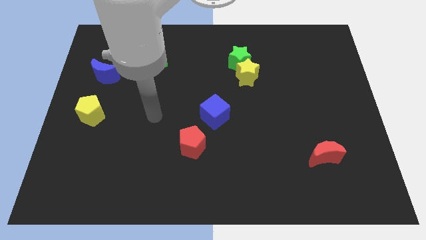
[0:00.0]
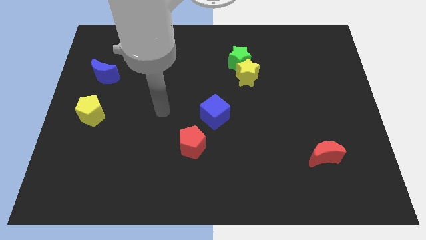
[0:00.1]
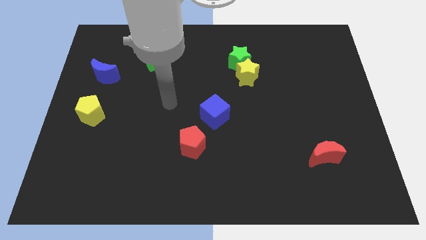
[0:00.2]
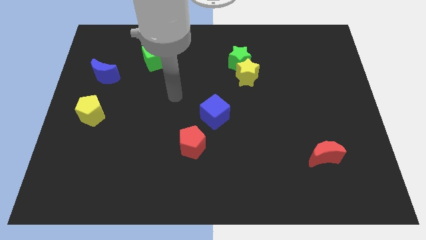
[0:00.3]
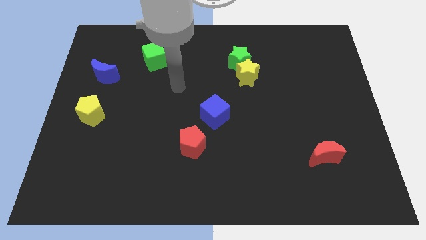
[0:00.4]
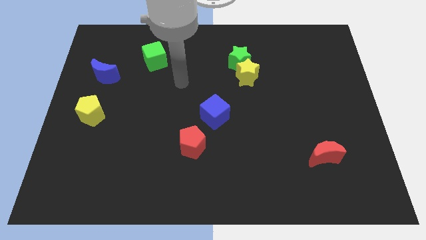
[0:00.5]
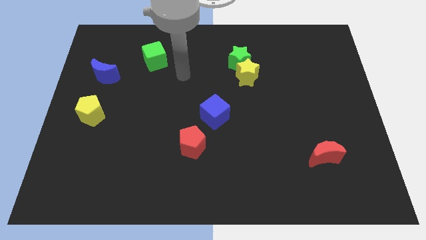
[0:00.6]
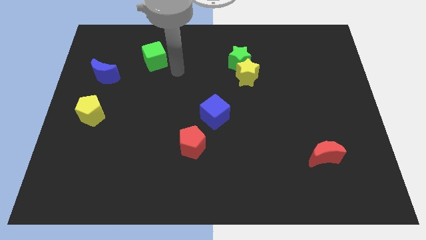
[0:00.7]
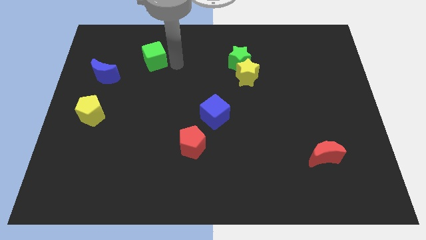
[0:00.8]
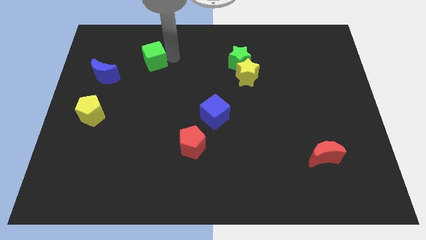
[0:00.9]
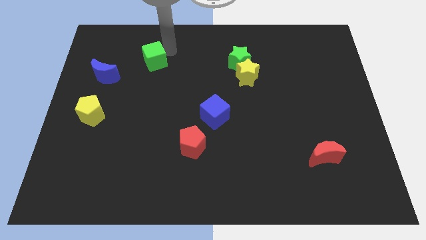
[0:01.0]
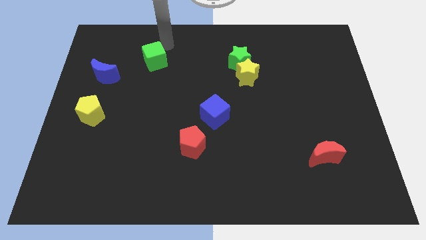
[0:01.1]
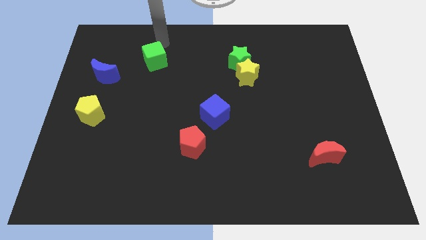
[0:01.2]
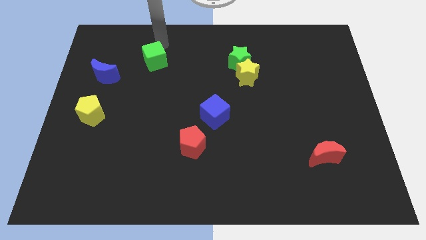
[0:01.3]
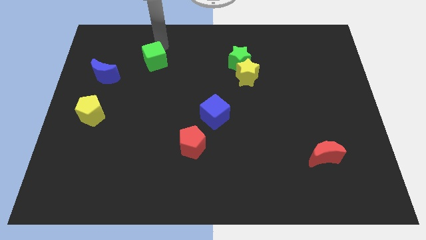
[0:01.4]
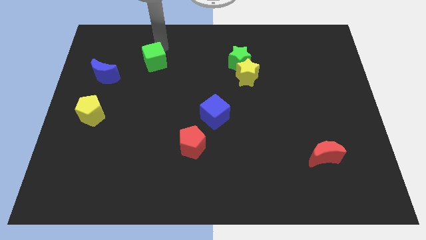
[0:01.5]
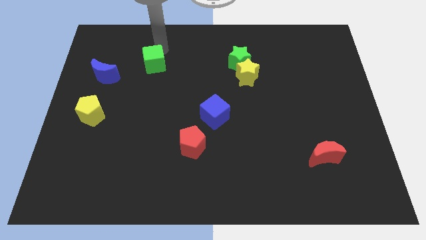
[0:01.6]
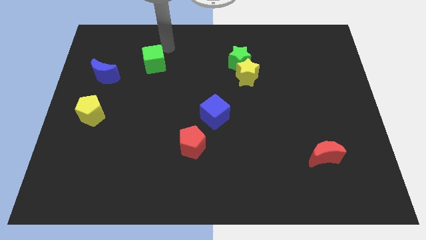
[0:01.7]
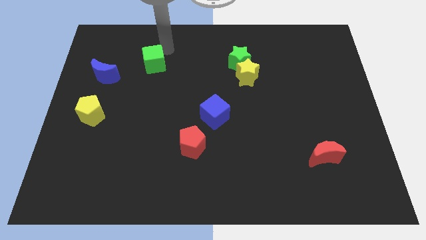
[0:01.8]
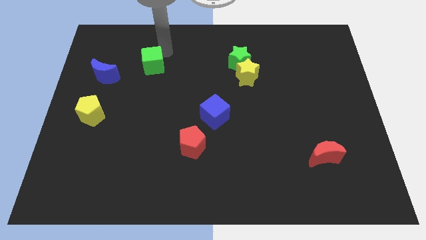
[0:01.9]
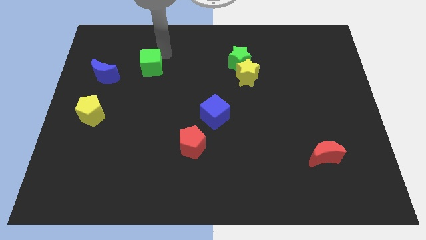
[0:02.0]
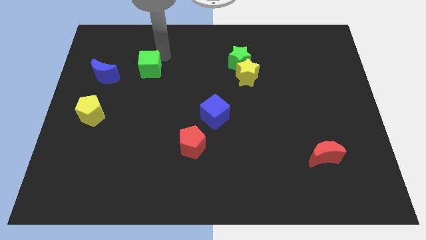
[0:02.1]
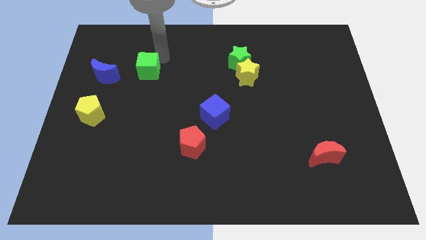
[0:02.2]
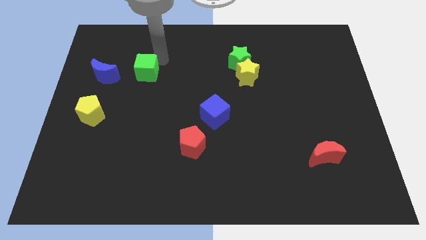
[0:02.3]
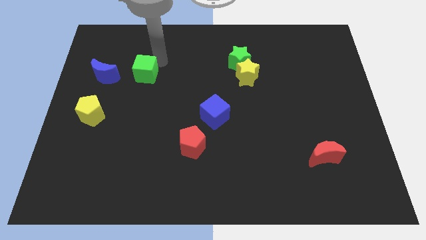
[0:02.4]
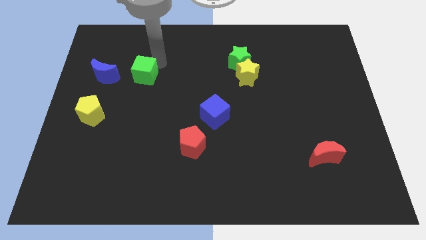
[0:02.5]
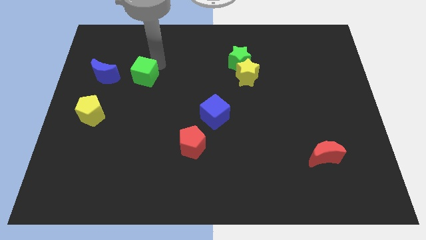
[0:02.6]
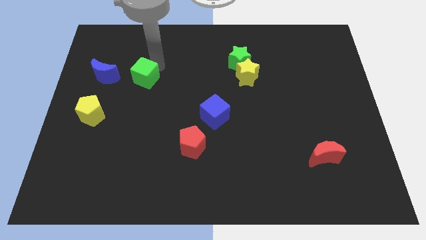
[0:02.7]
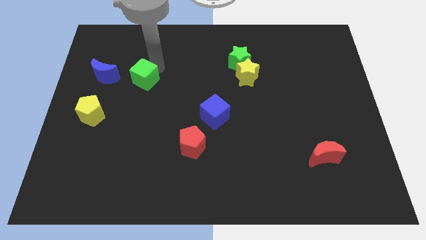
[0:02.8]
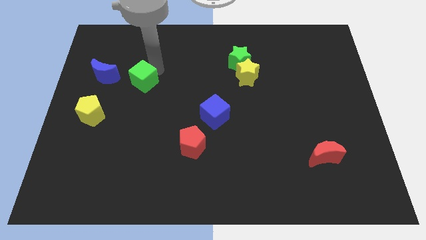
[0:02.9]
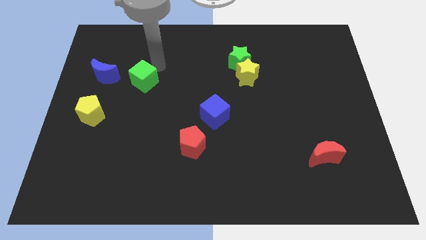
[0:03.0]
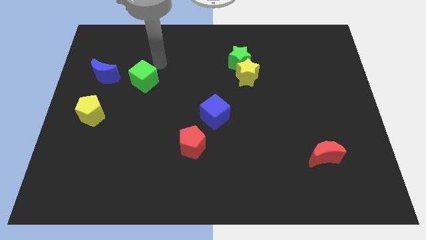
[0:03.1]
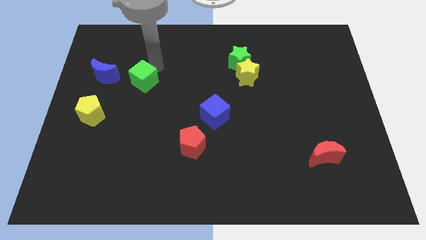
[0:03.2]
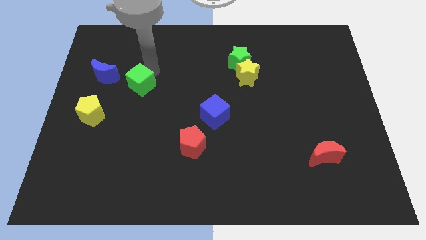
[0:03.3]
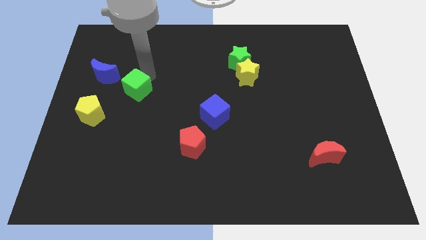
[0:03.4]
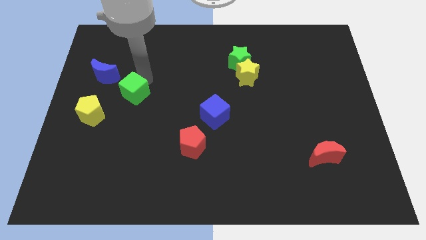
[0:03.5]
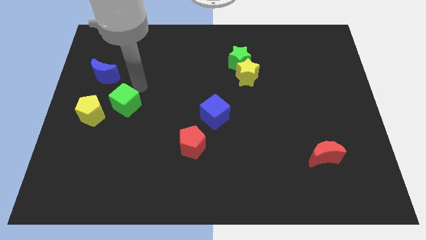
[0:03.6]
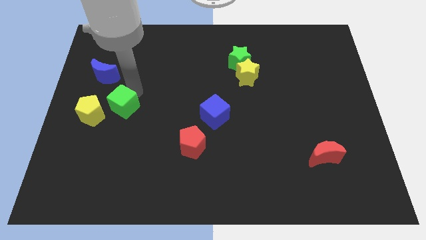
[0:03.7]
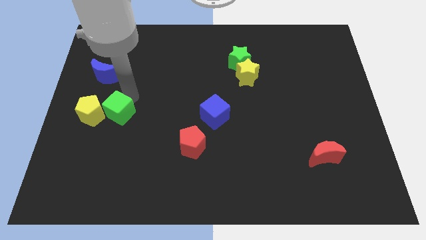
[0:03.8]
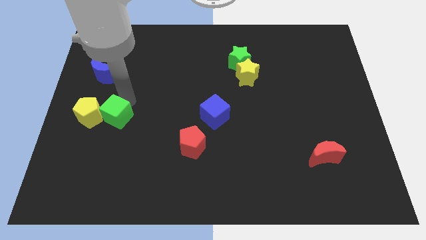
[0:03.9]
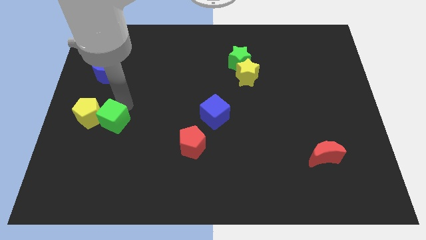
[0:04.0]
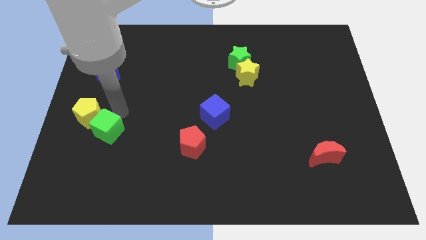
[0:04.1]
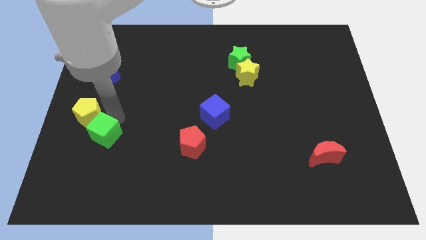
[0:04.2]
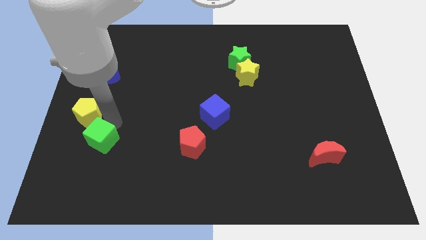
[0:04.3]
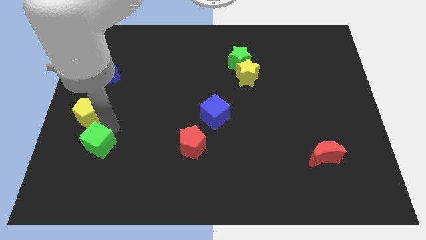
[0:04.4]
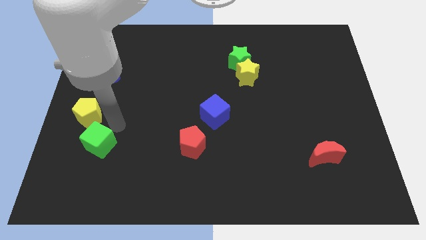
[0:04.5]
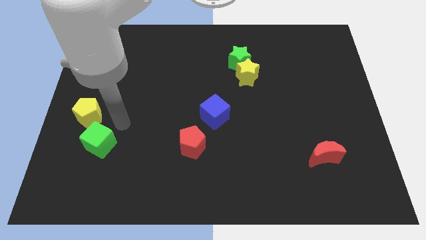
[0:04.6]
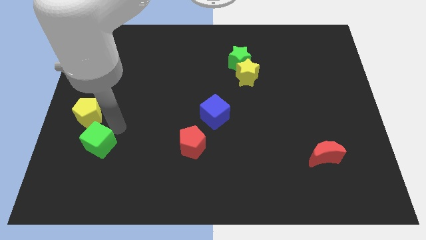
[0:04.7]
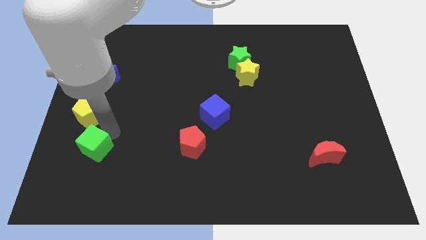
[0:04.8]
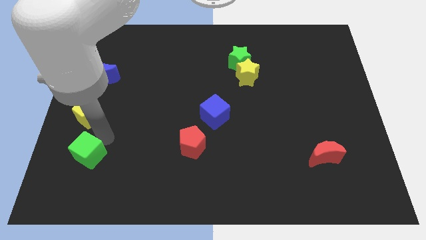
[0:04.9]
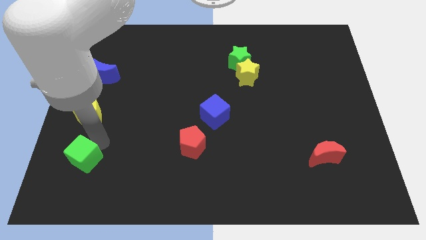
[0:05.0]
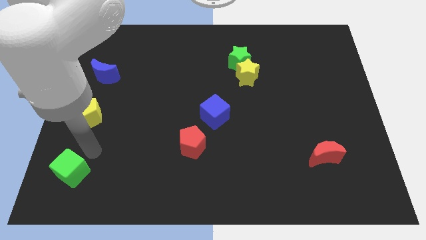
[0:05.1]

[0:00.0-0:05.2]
move the green cube to the bottom left

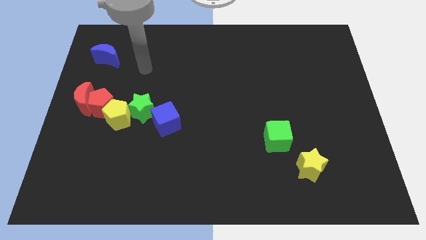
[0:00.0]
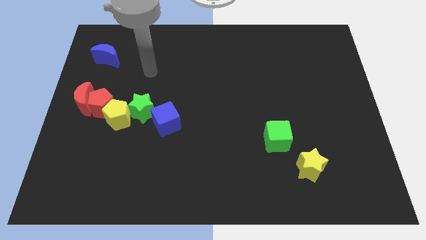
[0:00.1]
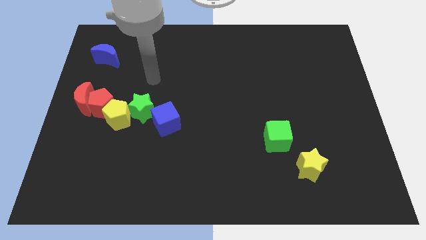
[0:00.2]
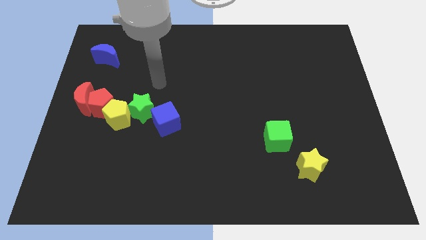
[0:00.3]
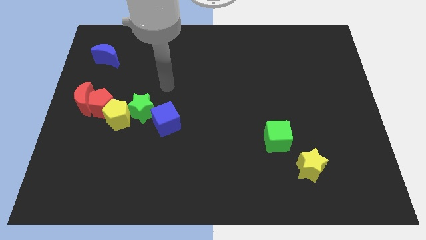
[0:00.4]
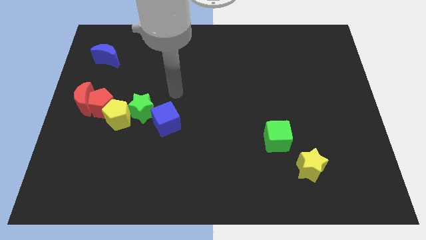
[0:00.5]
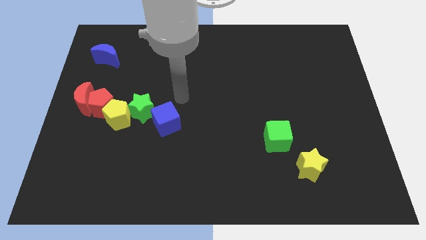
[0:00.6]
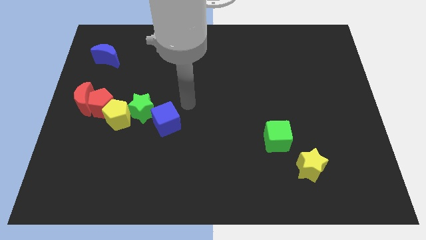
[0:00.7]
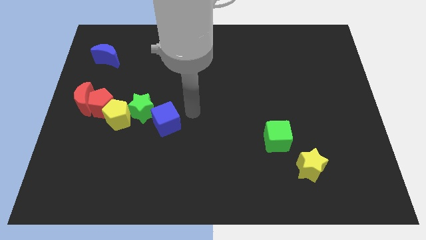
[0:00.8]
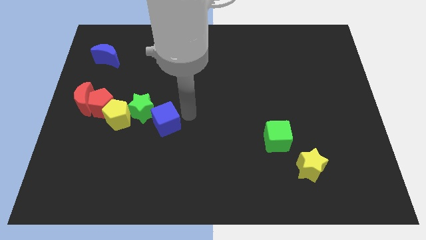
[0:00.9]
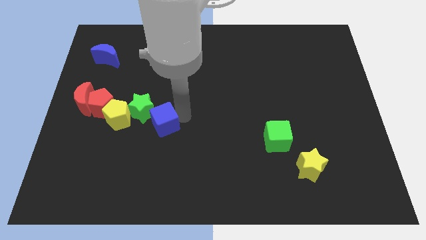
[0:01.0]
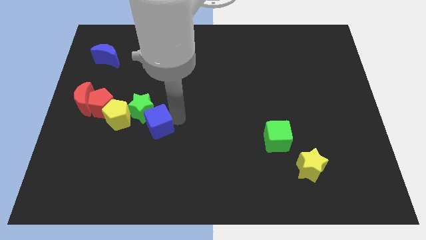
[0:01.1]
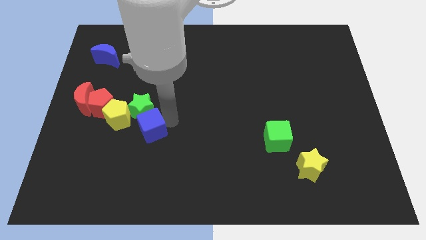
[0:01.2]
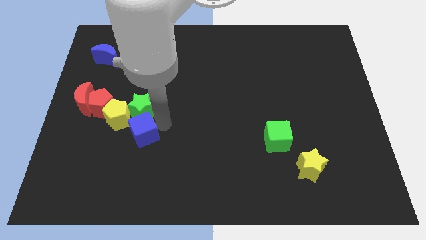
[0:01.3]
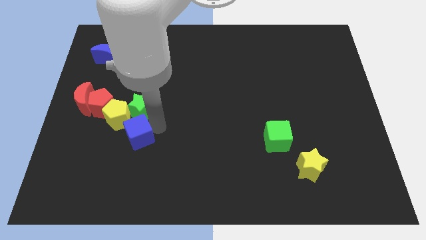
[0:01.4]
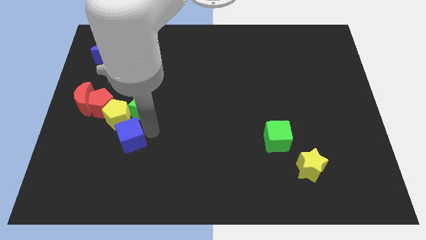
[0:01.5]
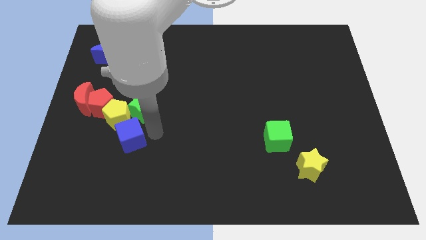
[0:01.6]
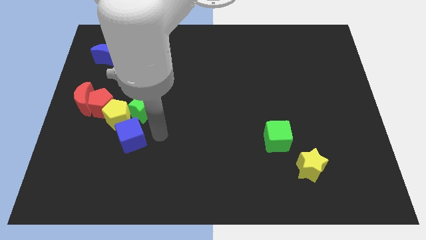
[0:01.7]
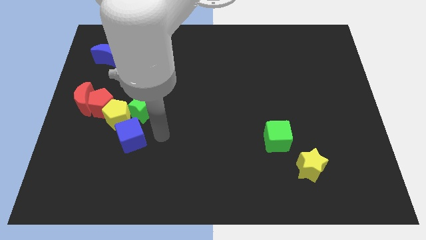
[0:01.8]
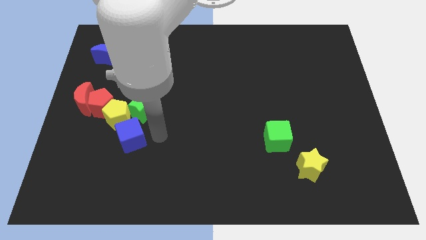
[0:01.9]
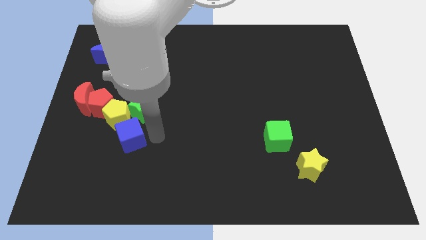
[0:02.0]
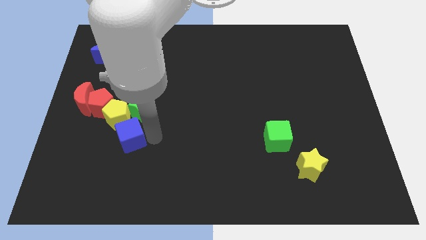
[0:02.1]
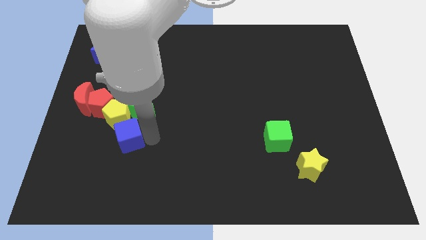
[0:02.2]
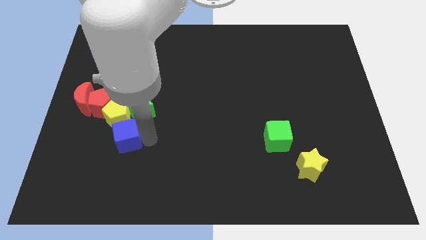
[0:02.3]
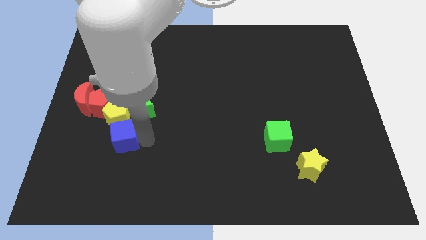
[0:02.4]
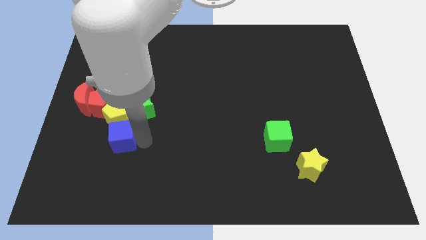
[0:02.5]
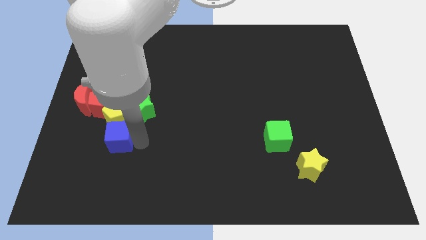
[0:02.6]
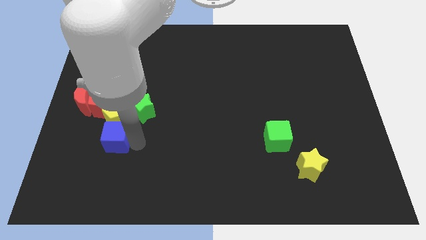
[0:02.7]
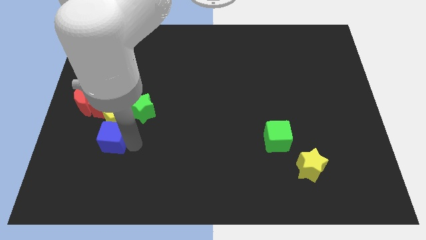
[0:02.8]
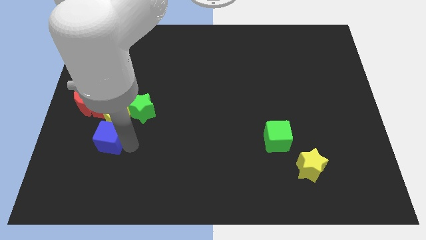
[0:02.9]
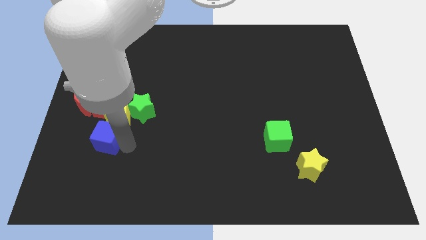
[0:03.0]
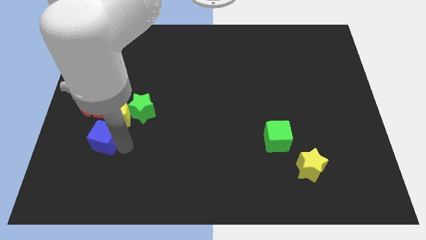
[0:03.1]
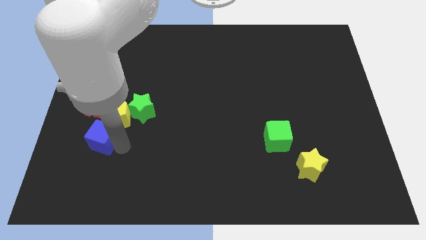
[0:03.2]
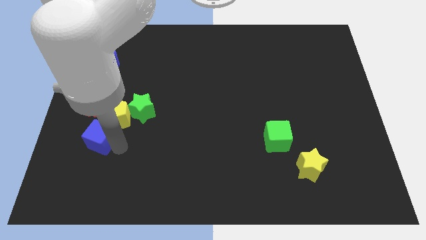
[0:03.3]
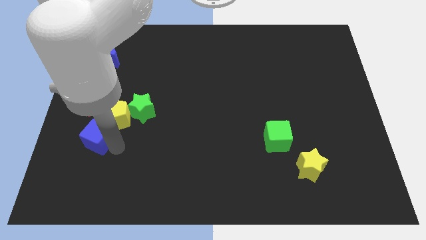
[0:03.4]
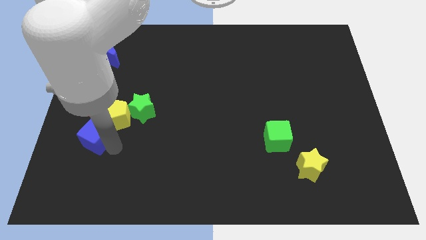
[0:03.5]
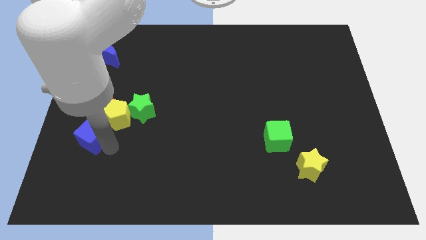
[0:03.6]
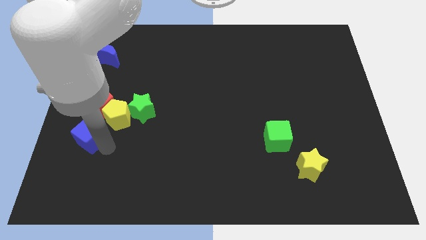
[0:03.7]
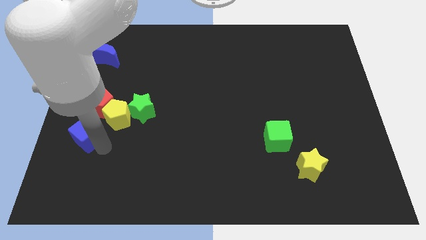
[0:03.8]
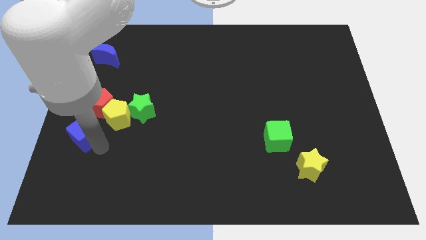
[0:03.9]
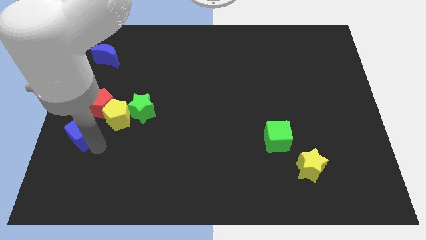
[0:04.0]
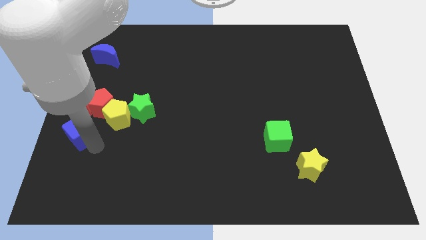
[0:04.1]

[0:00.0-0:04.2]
move the blue cube to the left side of the board
